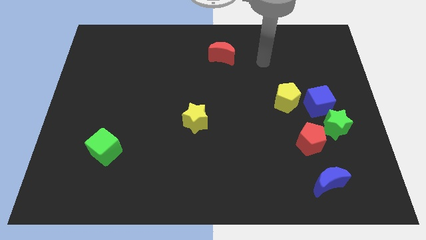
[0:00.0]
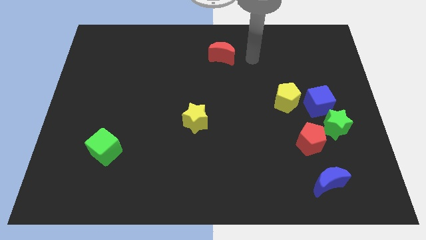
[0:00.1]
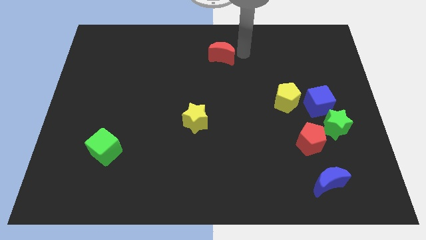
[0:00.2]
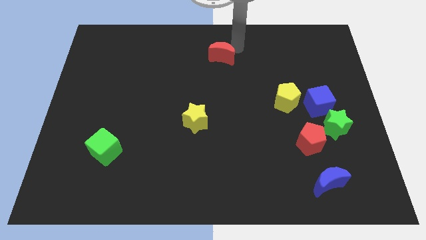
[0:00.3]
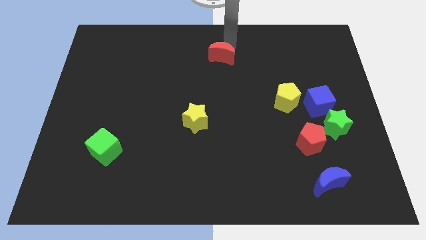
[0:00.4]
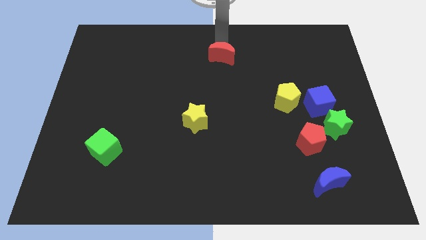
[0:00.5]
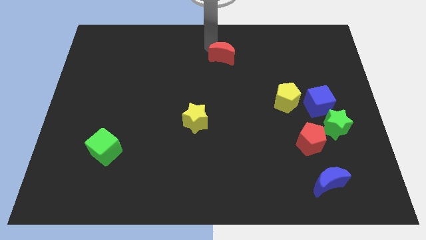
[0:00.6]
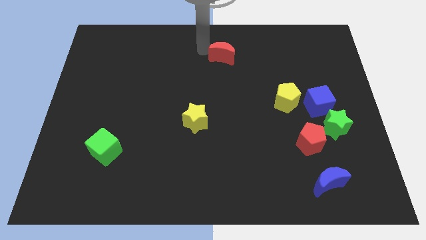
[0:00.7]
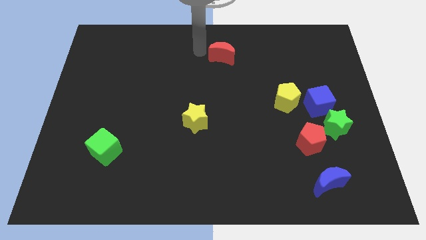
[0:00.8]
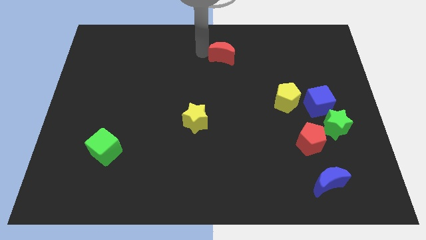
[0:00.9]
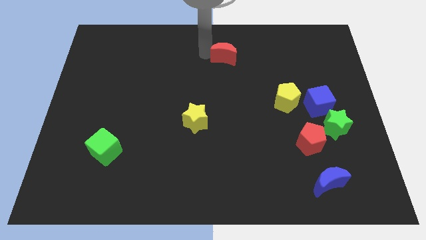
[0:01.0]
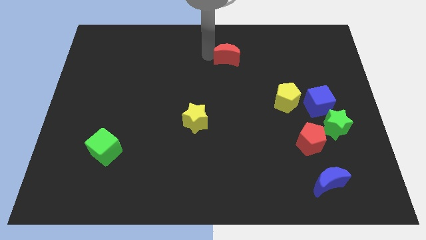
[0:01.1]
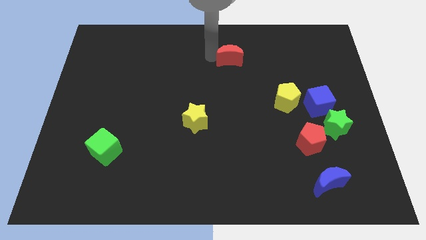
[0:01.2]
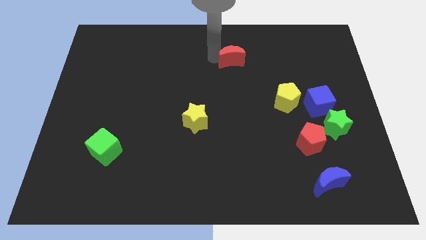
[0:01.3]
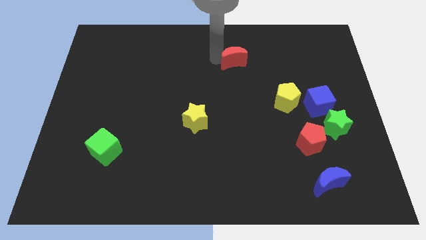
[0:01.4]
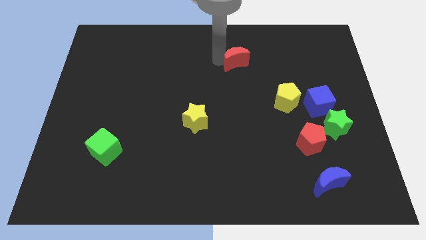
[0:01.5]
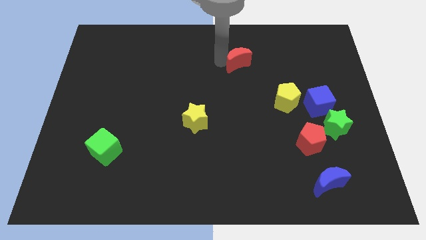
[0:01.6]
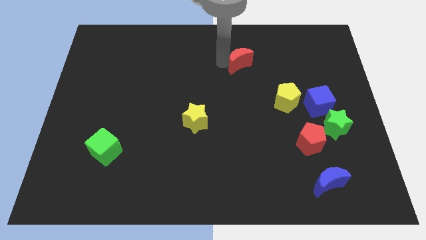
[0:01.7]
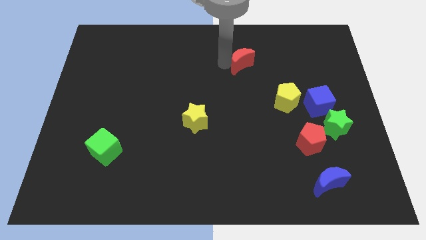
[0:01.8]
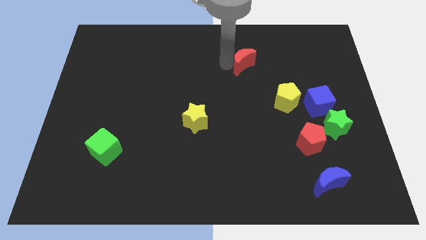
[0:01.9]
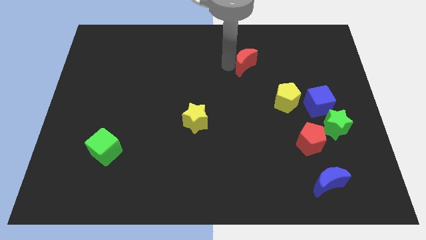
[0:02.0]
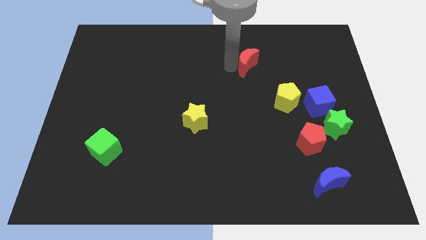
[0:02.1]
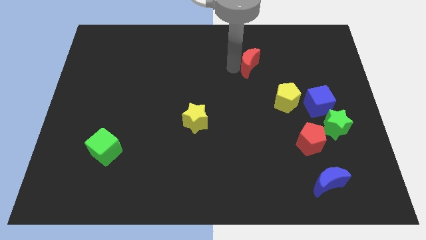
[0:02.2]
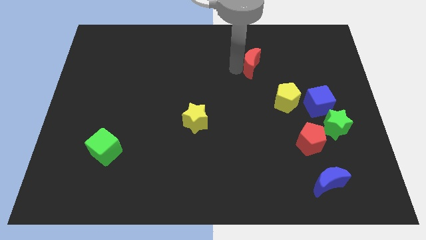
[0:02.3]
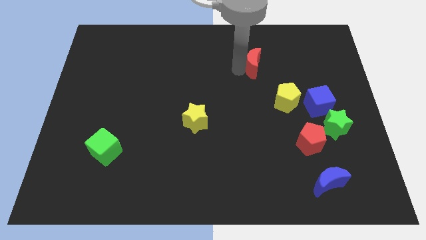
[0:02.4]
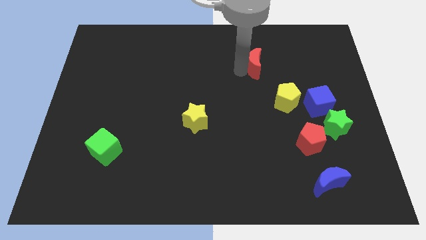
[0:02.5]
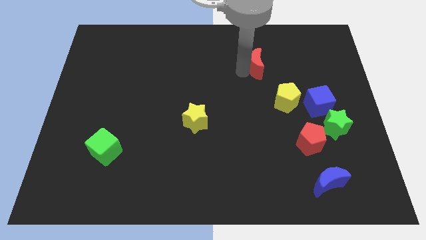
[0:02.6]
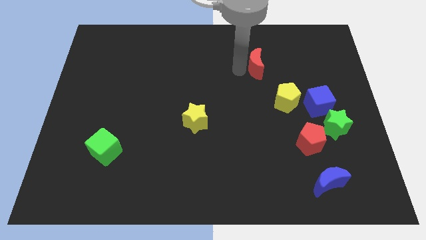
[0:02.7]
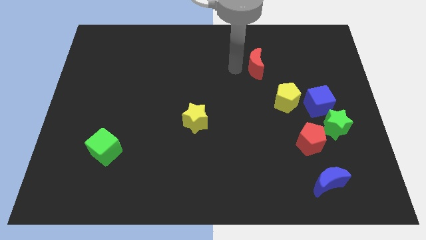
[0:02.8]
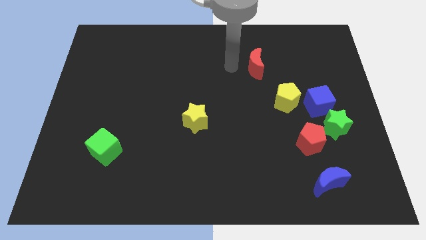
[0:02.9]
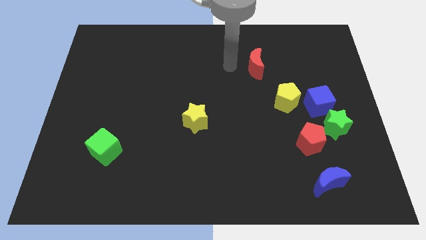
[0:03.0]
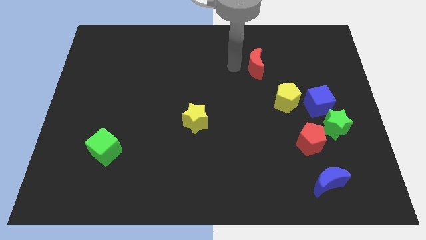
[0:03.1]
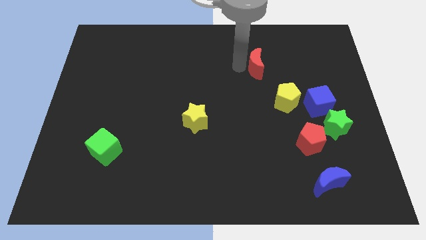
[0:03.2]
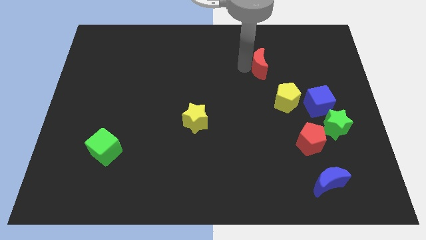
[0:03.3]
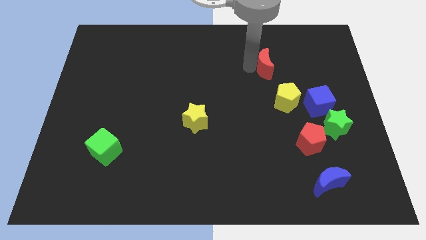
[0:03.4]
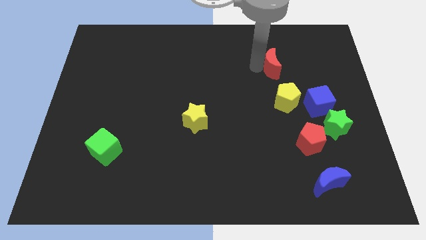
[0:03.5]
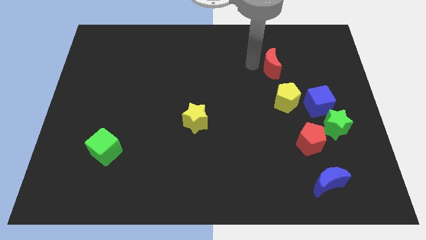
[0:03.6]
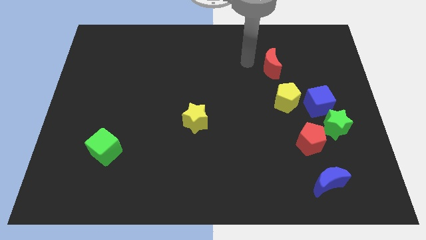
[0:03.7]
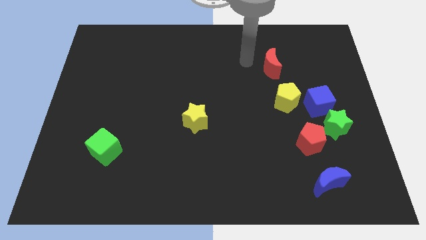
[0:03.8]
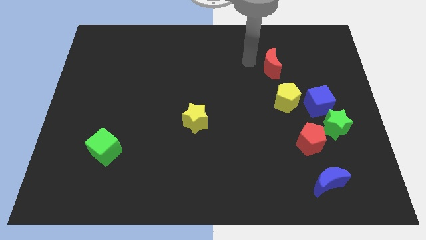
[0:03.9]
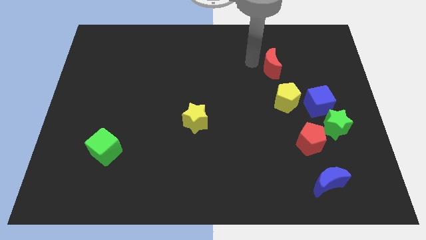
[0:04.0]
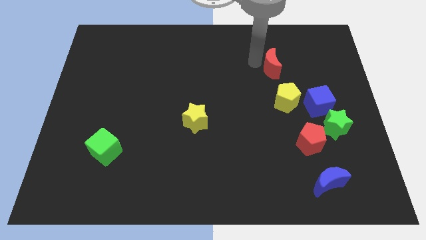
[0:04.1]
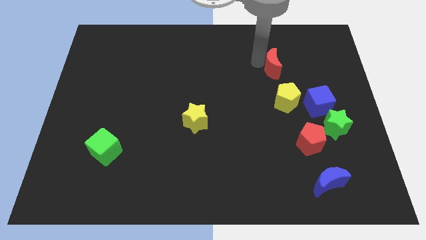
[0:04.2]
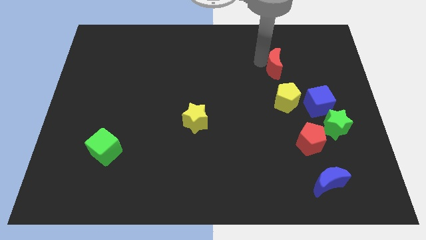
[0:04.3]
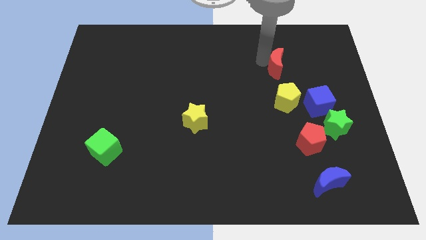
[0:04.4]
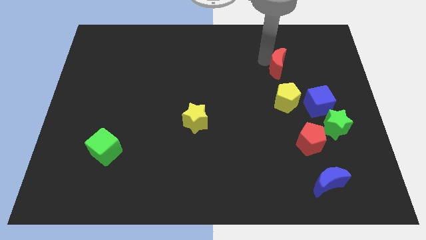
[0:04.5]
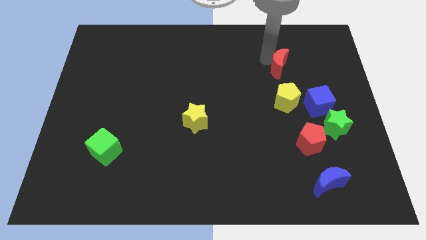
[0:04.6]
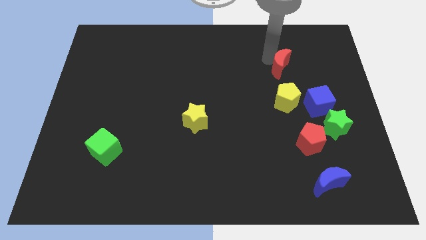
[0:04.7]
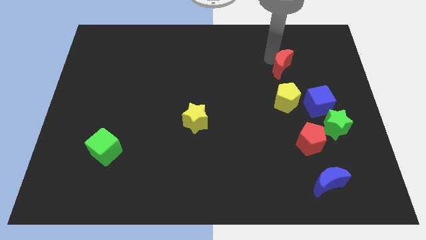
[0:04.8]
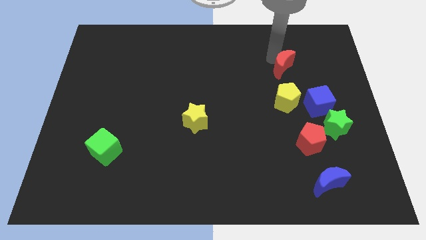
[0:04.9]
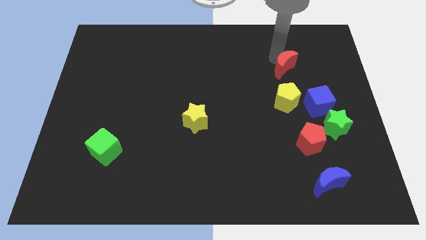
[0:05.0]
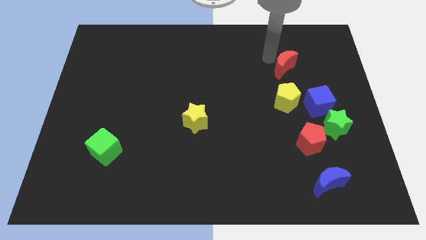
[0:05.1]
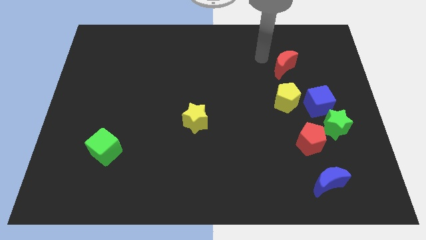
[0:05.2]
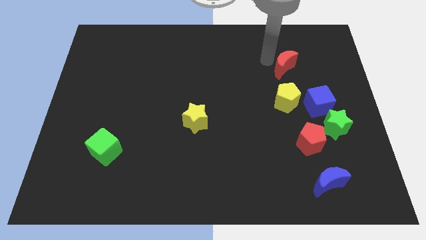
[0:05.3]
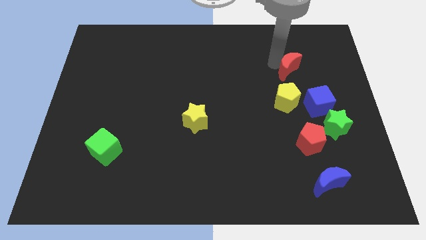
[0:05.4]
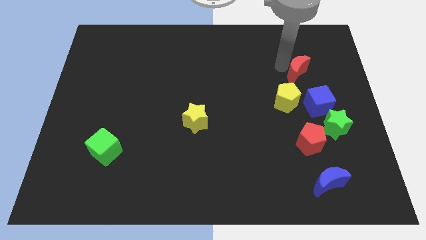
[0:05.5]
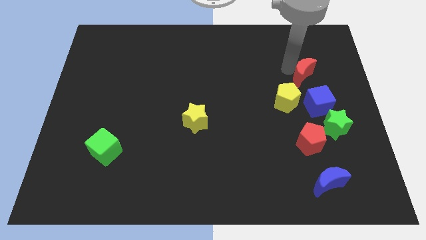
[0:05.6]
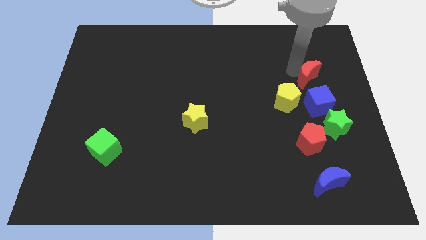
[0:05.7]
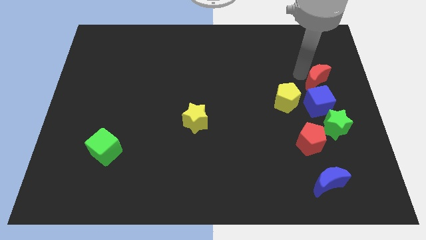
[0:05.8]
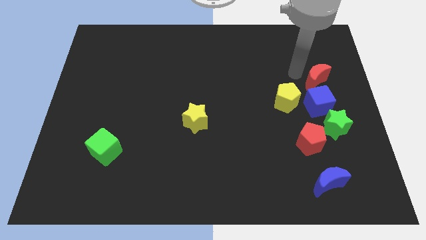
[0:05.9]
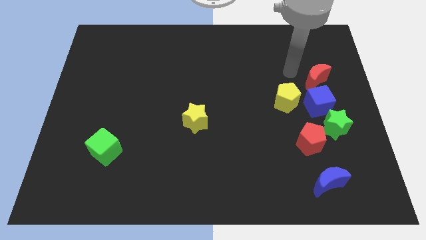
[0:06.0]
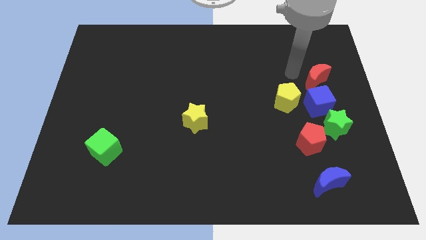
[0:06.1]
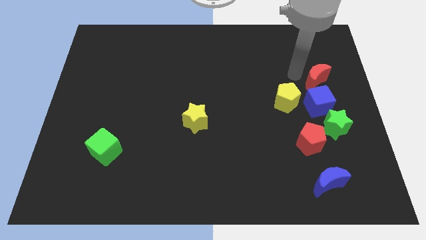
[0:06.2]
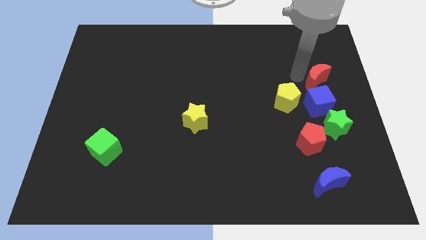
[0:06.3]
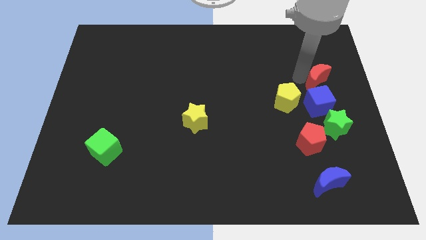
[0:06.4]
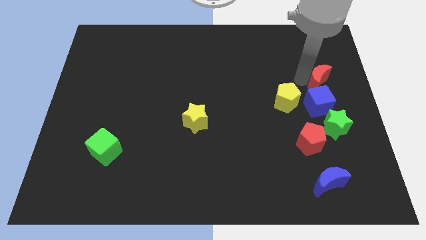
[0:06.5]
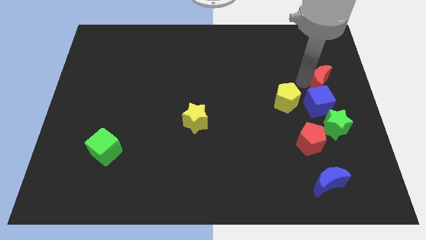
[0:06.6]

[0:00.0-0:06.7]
put the red moon to the right side of the board
